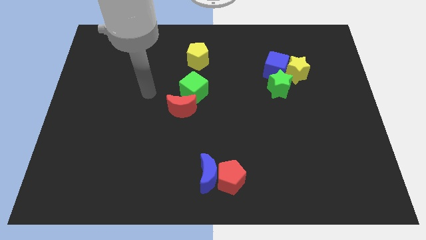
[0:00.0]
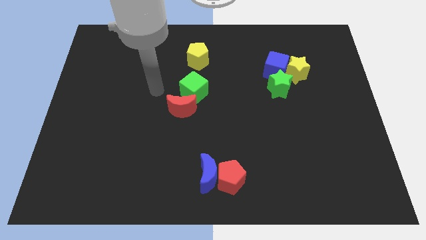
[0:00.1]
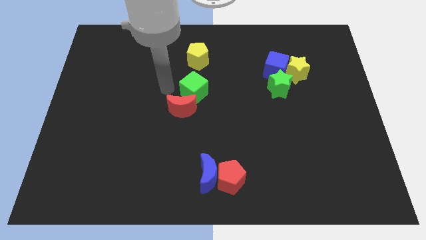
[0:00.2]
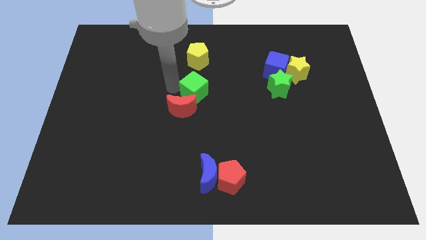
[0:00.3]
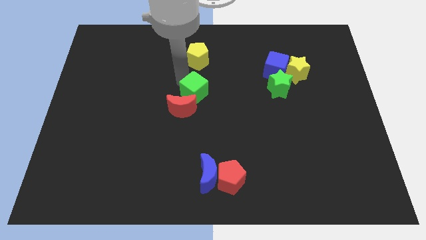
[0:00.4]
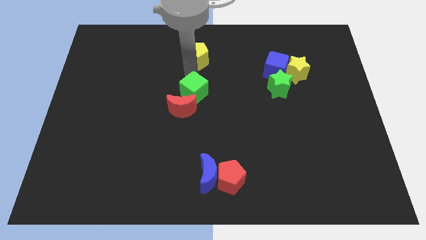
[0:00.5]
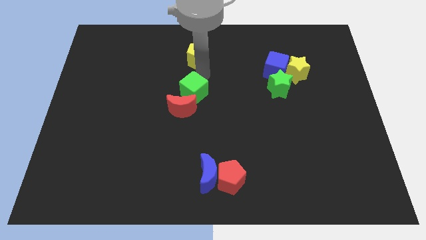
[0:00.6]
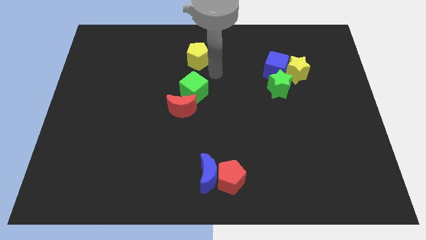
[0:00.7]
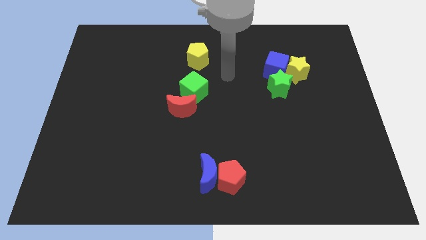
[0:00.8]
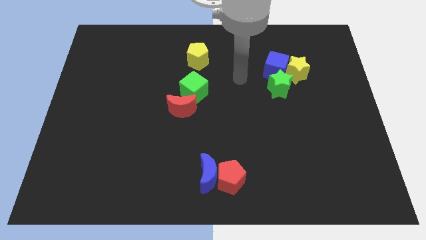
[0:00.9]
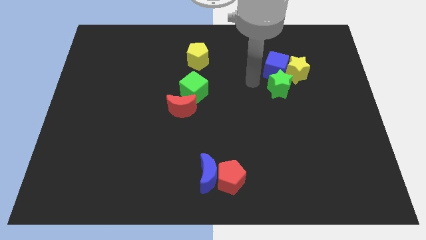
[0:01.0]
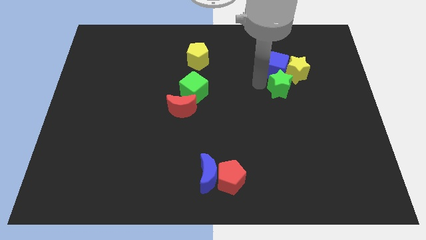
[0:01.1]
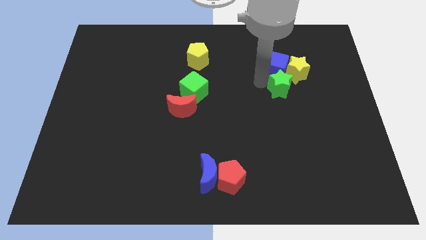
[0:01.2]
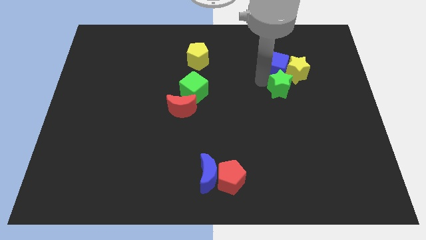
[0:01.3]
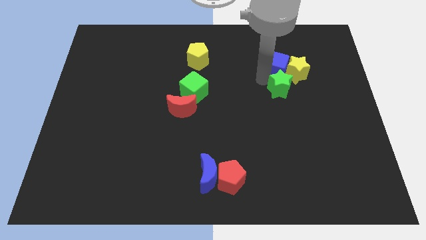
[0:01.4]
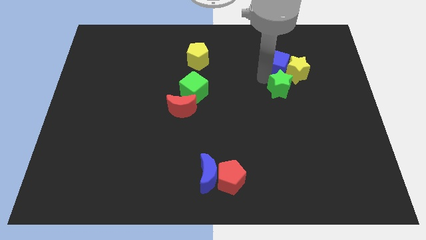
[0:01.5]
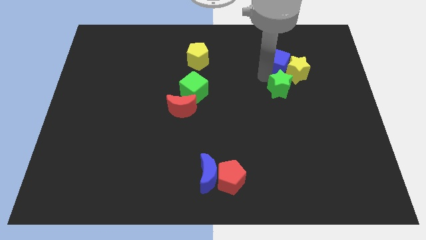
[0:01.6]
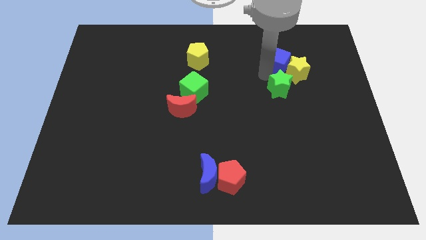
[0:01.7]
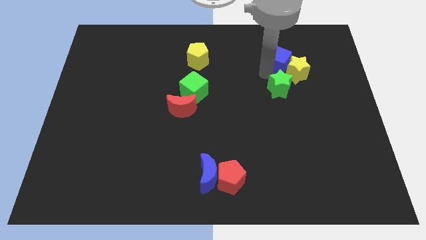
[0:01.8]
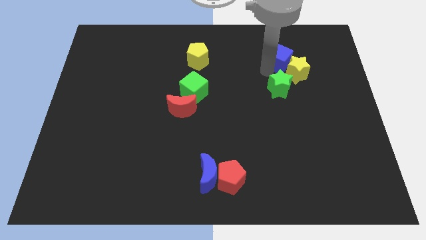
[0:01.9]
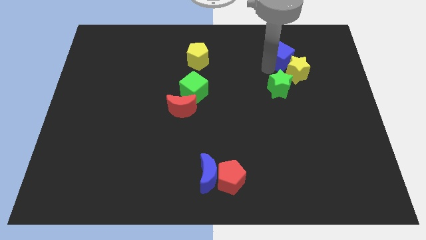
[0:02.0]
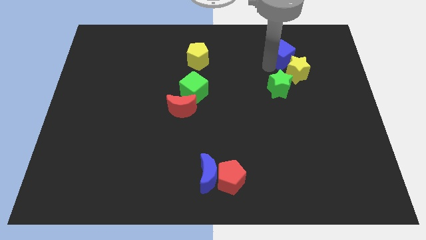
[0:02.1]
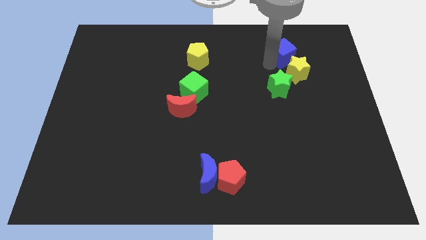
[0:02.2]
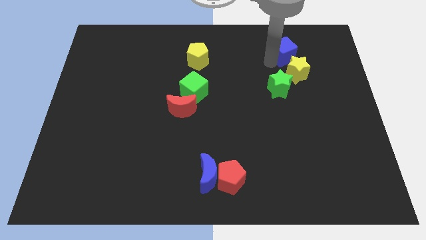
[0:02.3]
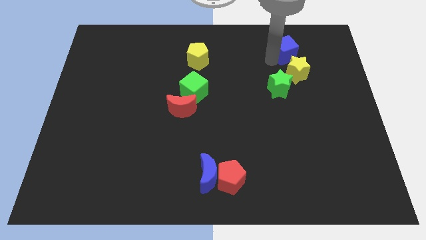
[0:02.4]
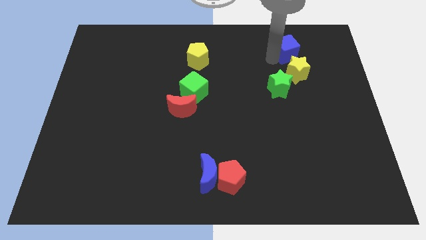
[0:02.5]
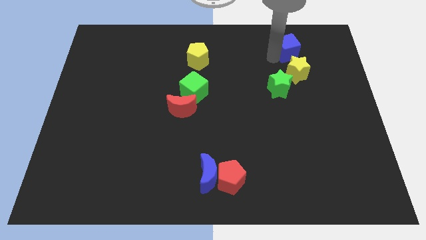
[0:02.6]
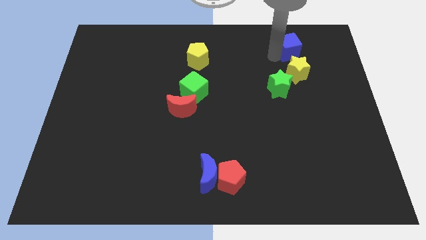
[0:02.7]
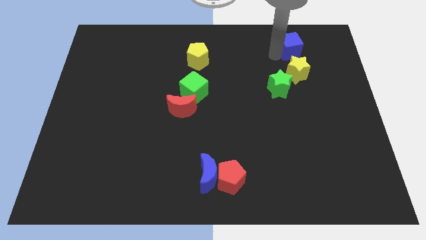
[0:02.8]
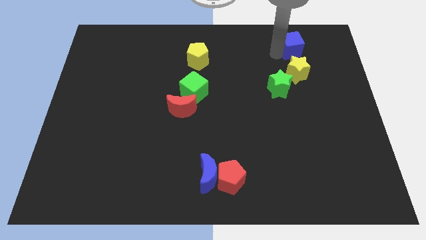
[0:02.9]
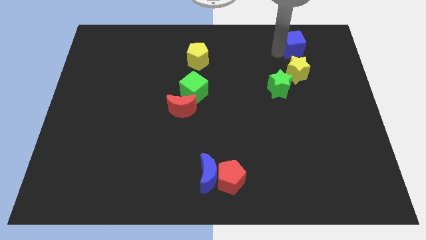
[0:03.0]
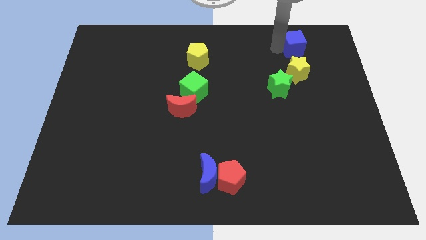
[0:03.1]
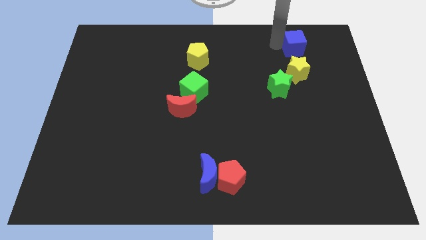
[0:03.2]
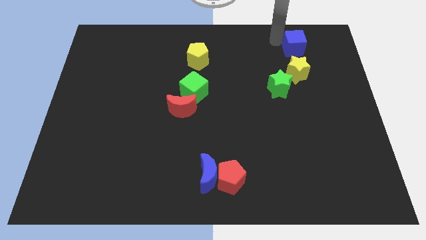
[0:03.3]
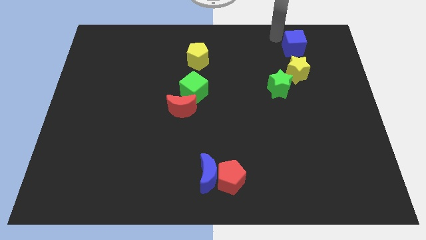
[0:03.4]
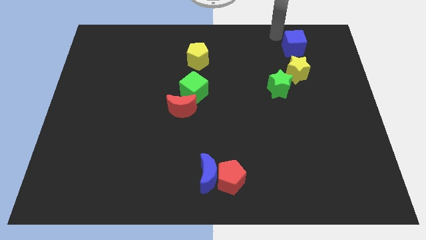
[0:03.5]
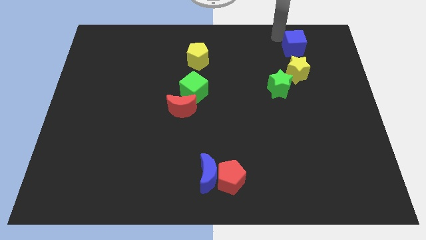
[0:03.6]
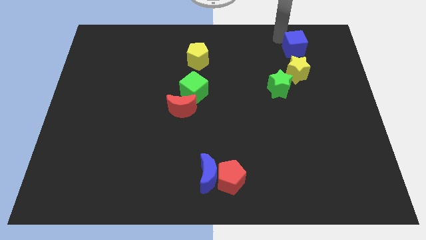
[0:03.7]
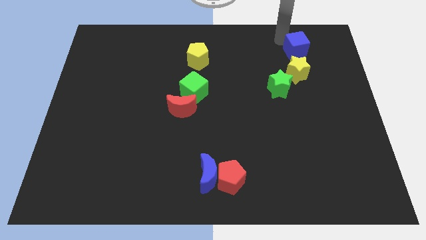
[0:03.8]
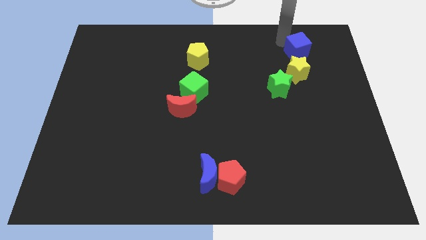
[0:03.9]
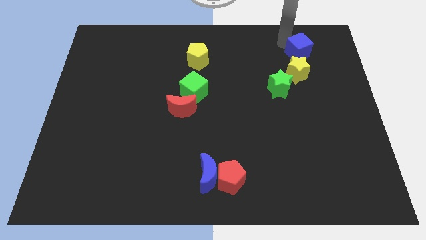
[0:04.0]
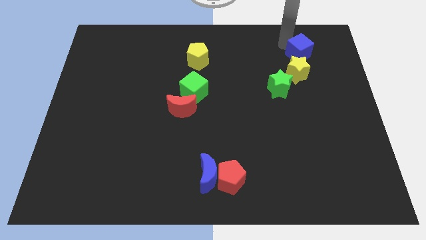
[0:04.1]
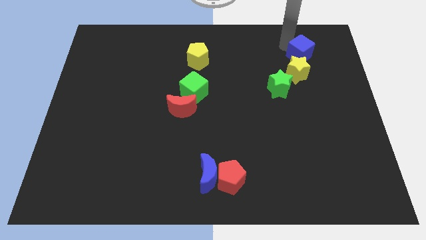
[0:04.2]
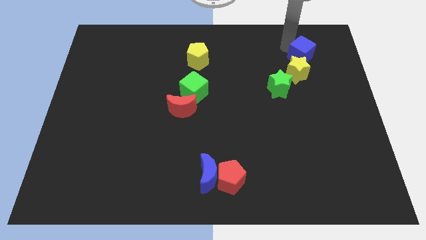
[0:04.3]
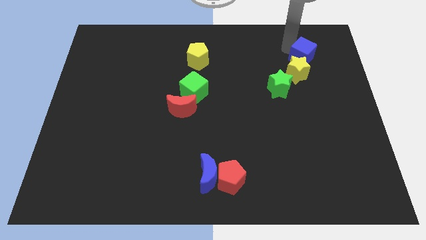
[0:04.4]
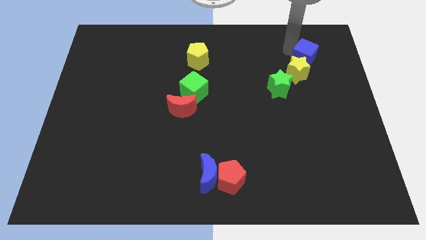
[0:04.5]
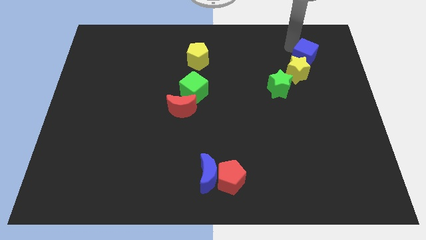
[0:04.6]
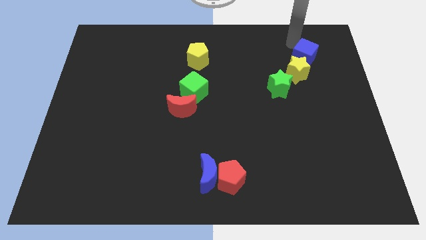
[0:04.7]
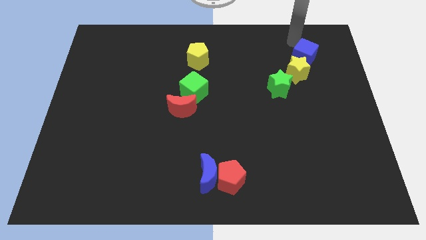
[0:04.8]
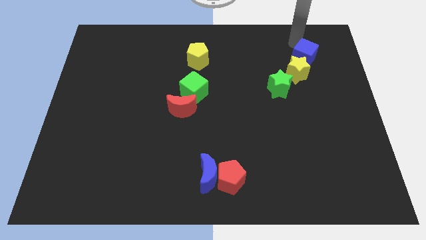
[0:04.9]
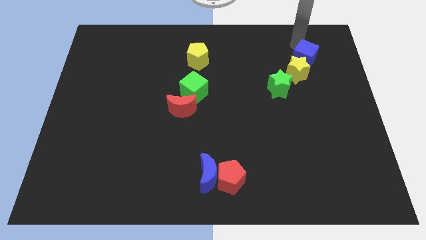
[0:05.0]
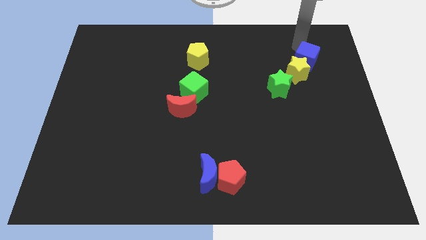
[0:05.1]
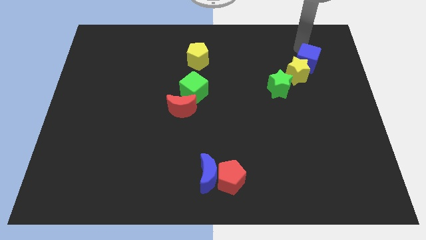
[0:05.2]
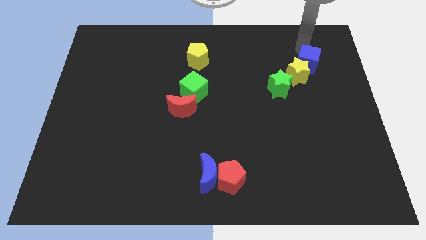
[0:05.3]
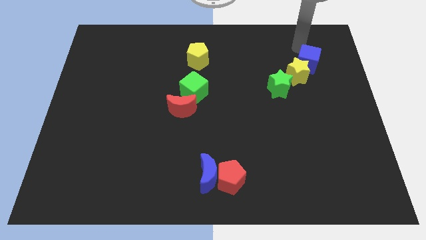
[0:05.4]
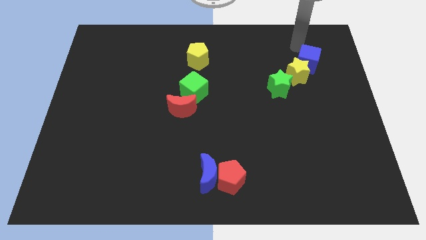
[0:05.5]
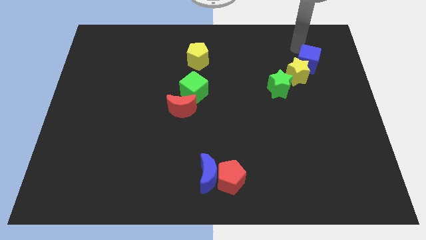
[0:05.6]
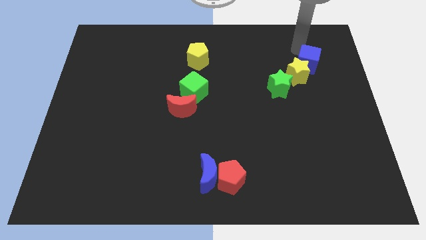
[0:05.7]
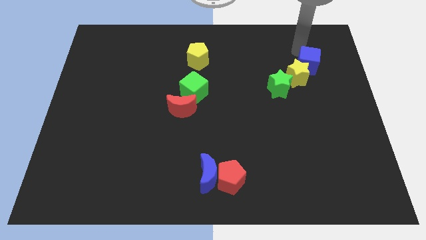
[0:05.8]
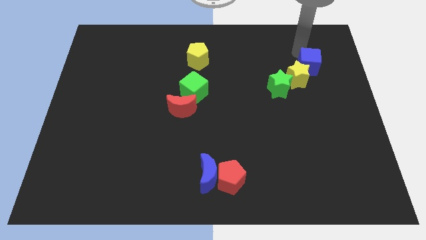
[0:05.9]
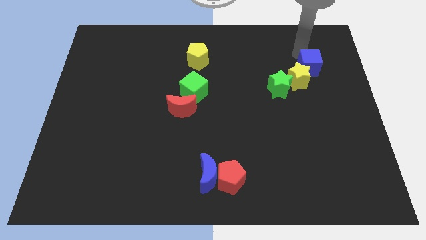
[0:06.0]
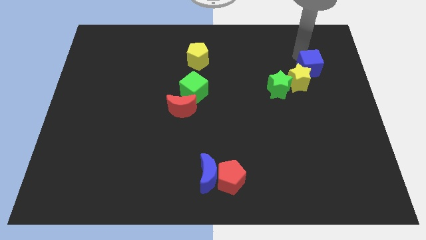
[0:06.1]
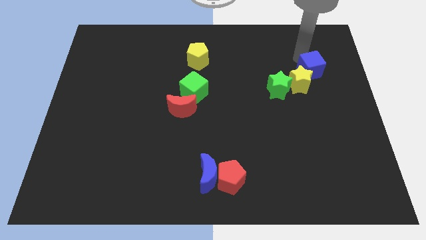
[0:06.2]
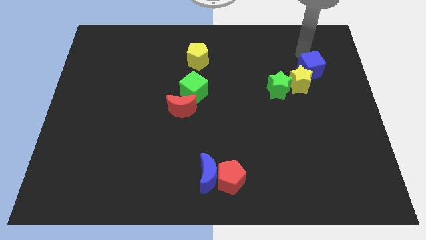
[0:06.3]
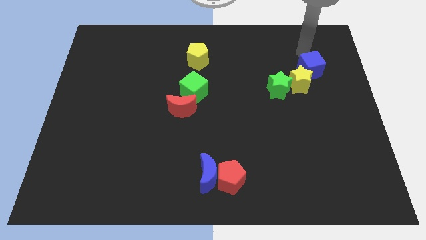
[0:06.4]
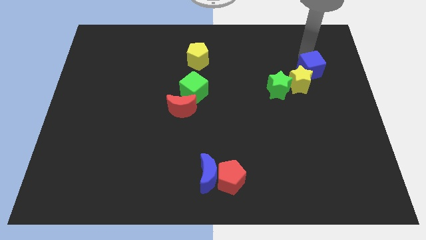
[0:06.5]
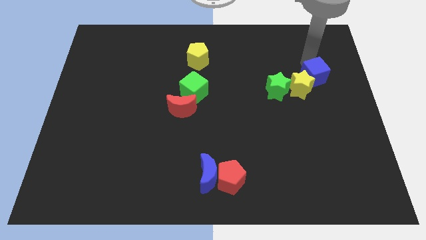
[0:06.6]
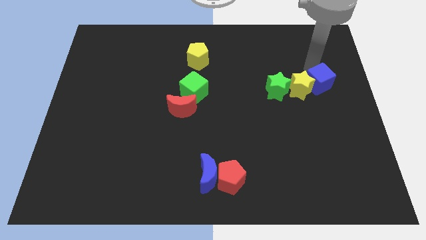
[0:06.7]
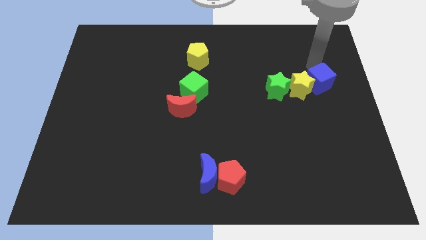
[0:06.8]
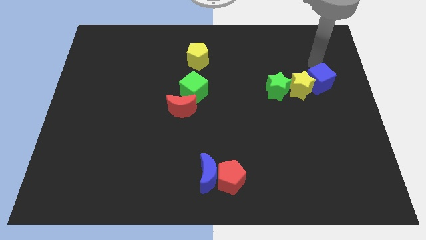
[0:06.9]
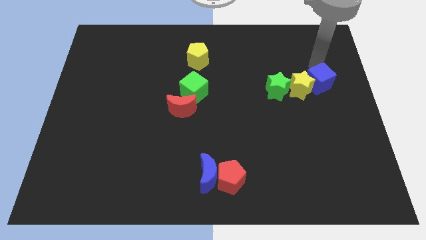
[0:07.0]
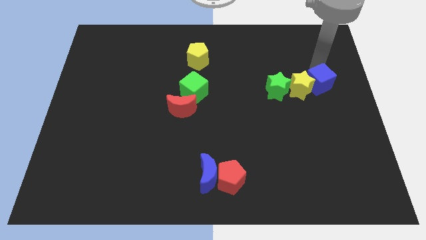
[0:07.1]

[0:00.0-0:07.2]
slide the blue cube to the bottom right of the yellow star
